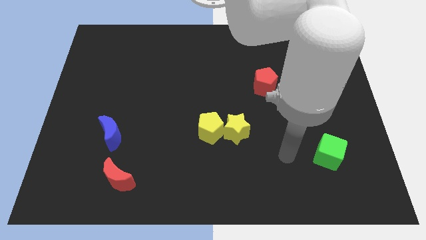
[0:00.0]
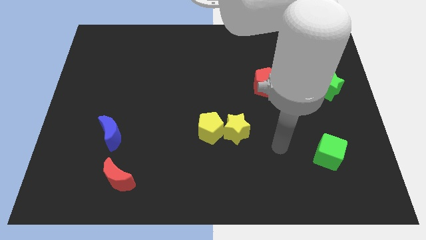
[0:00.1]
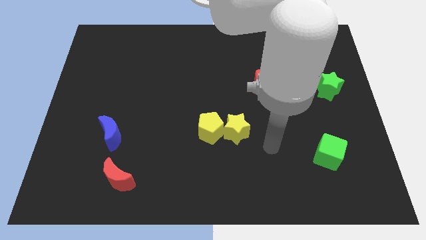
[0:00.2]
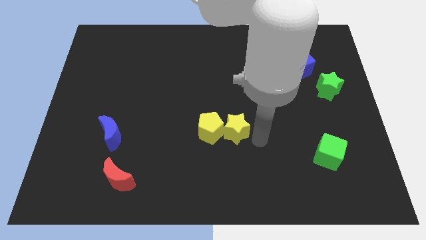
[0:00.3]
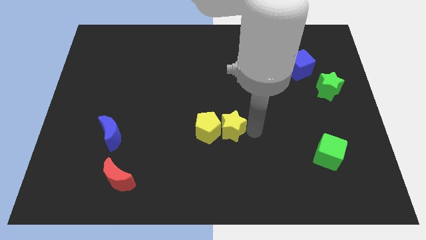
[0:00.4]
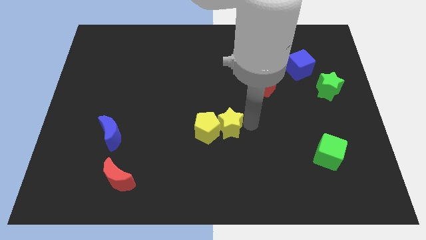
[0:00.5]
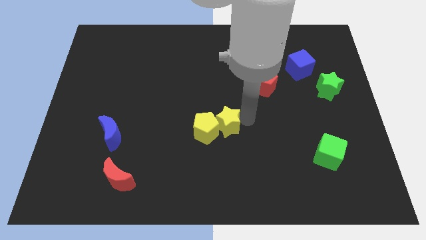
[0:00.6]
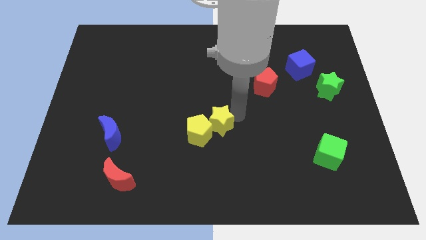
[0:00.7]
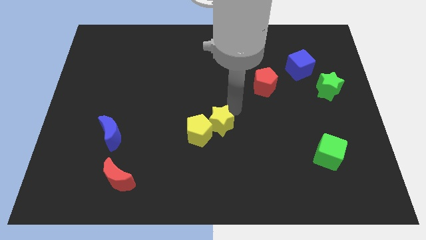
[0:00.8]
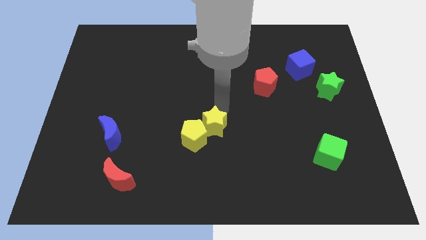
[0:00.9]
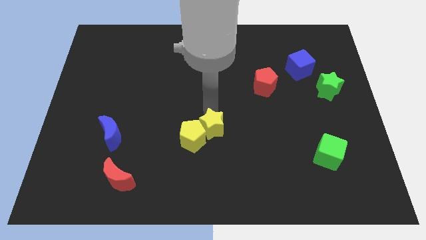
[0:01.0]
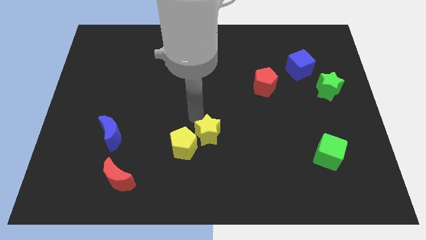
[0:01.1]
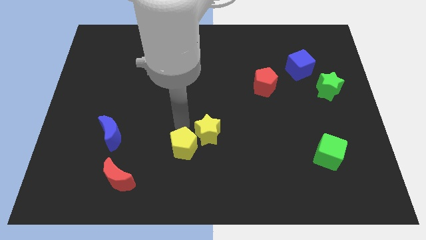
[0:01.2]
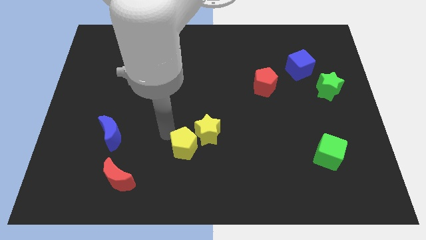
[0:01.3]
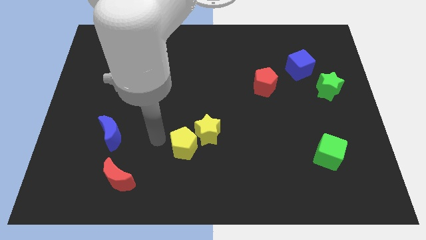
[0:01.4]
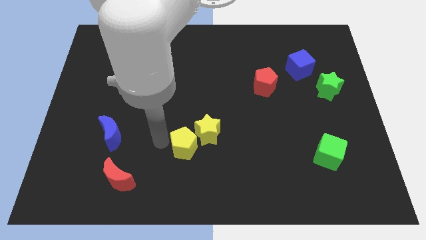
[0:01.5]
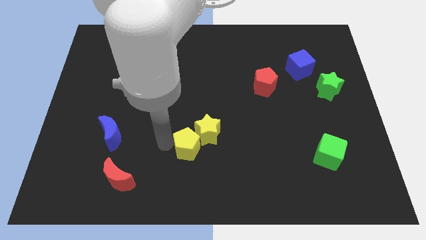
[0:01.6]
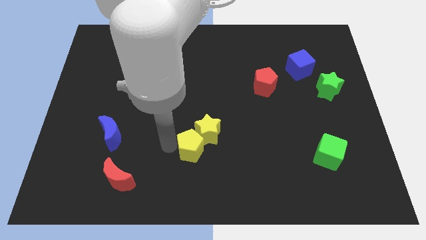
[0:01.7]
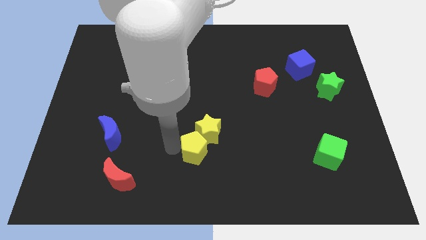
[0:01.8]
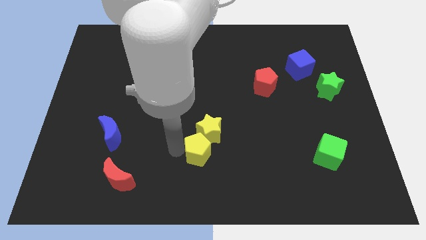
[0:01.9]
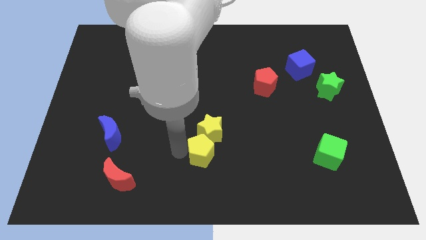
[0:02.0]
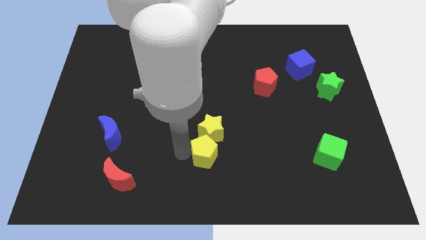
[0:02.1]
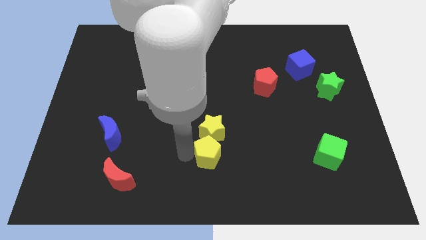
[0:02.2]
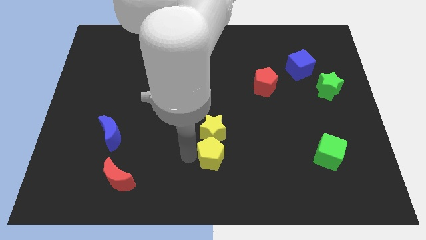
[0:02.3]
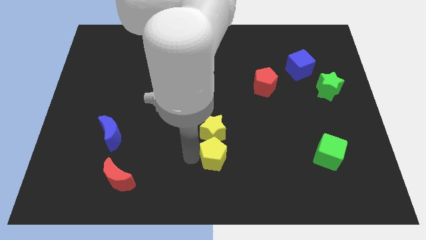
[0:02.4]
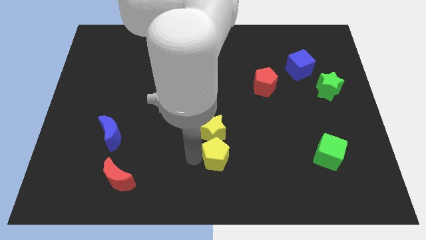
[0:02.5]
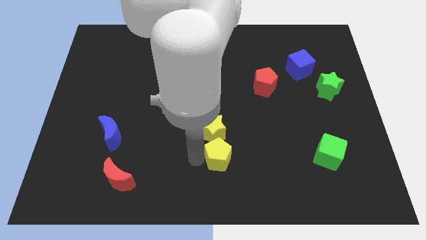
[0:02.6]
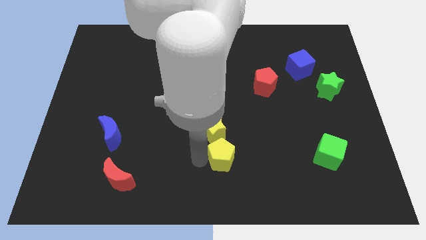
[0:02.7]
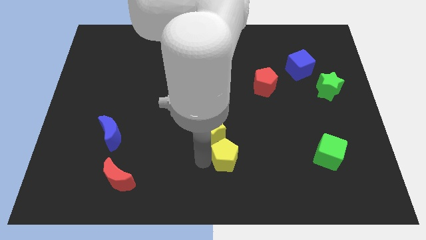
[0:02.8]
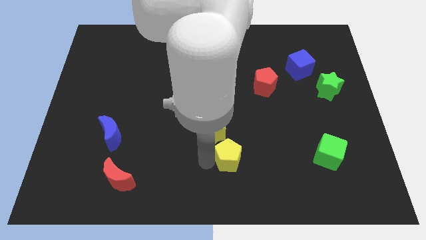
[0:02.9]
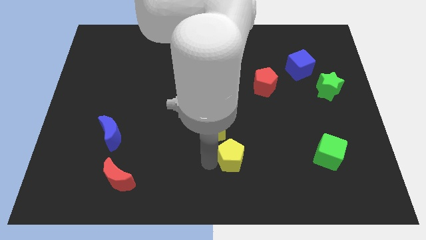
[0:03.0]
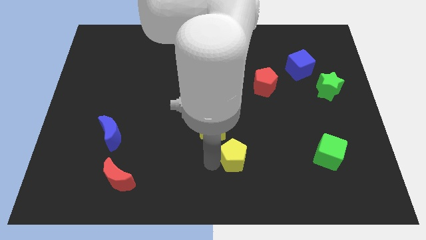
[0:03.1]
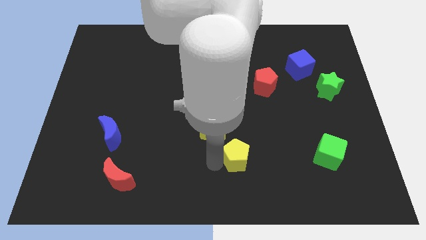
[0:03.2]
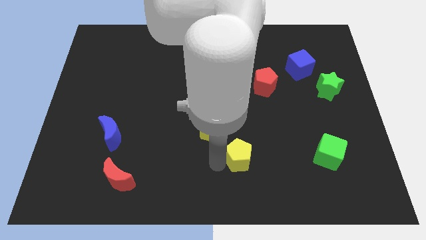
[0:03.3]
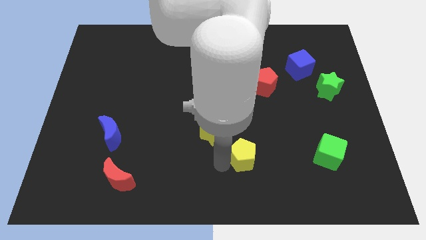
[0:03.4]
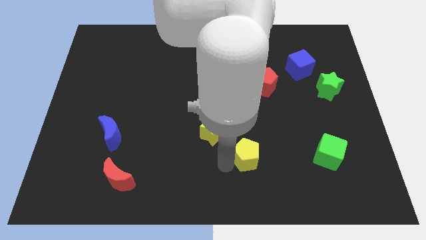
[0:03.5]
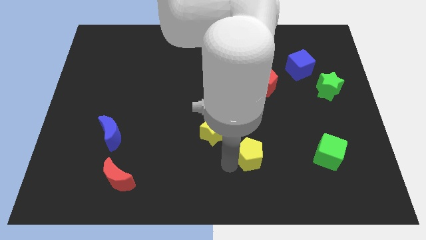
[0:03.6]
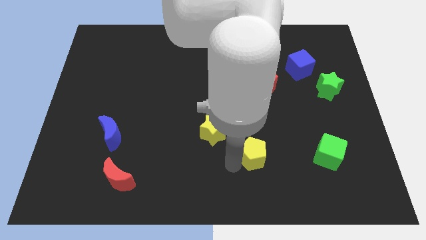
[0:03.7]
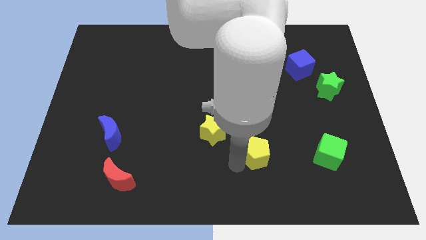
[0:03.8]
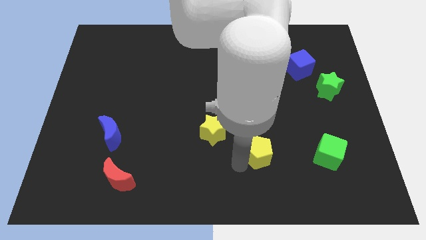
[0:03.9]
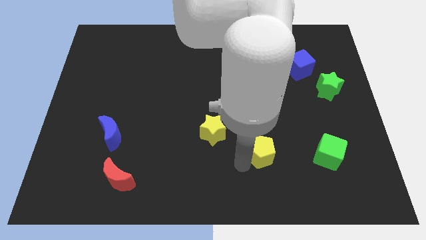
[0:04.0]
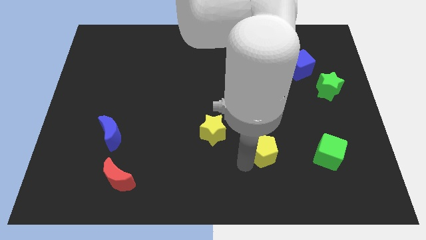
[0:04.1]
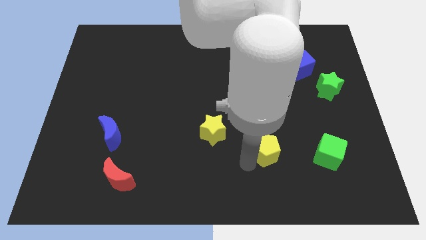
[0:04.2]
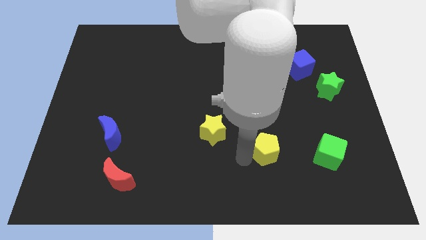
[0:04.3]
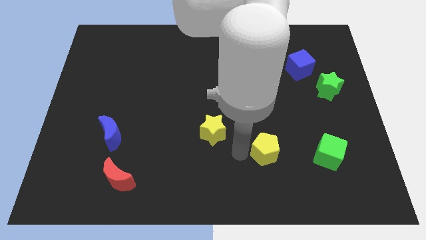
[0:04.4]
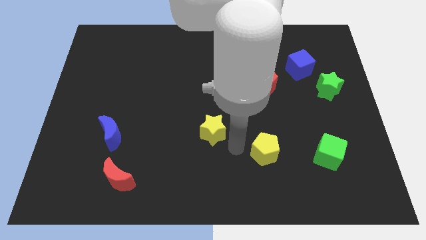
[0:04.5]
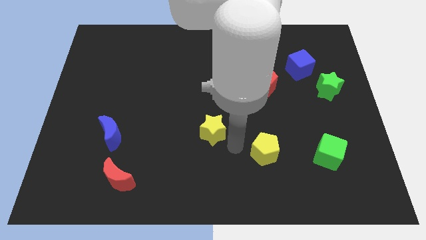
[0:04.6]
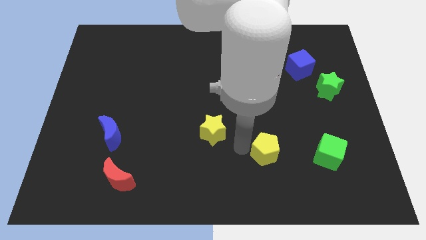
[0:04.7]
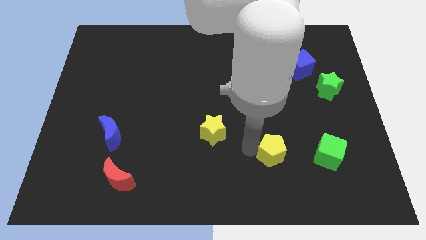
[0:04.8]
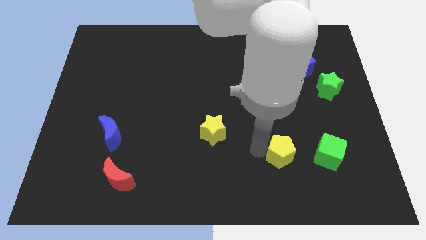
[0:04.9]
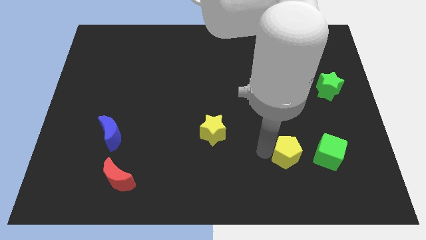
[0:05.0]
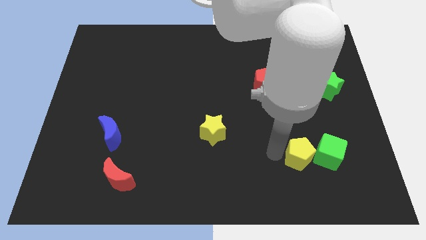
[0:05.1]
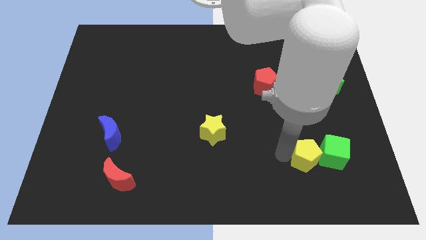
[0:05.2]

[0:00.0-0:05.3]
move the yellow pentagon close to the green cube

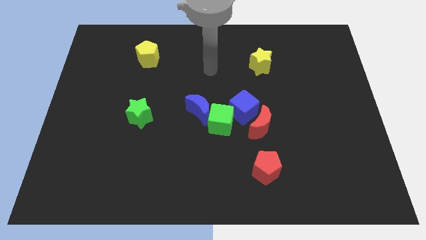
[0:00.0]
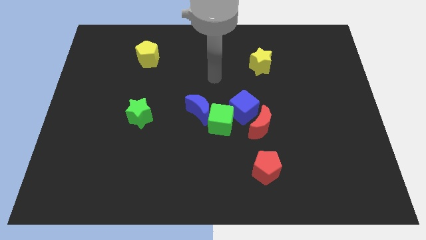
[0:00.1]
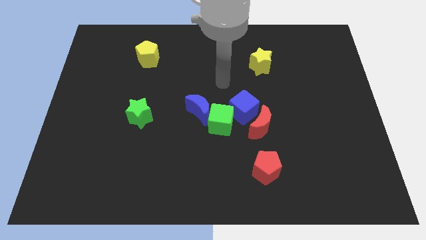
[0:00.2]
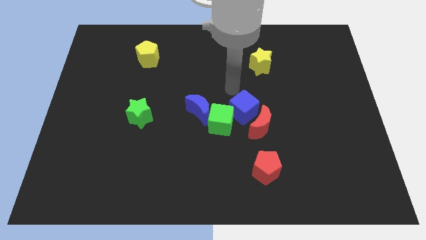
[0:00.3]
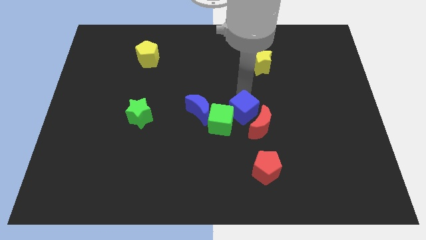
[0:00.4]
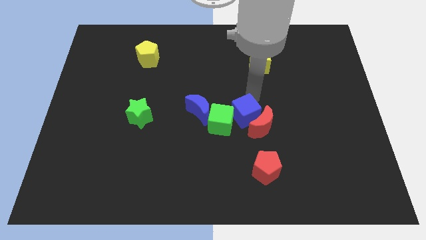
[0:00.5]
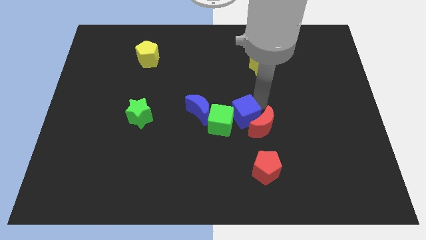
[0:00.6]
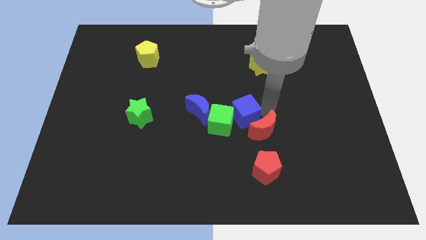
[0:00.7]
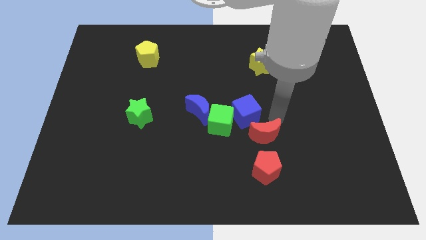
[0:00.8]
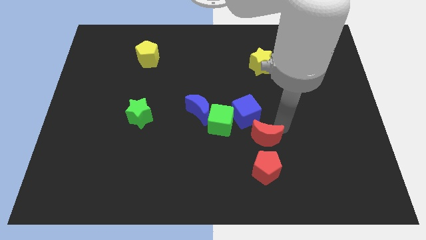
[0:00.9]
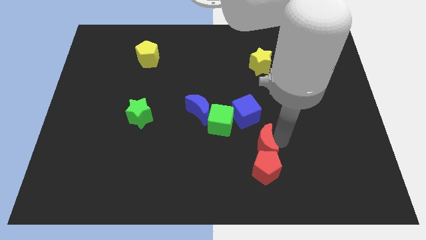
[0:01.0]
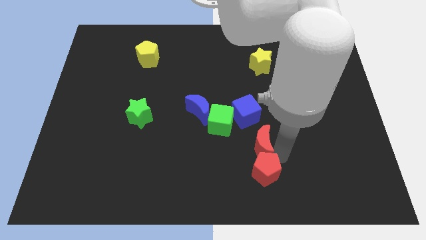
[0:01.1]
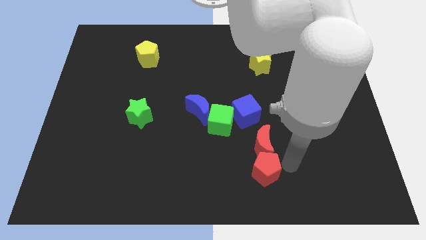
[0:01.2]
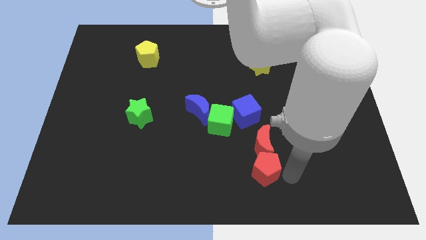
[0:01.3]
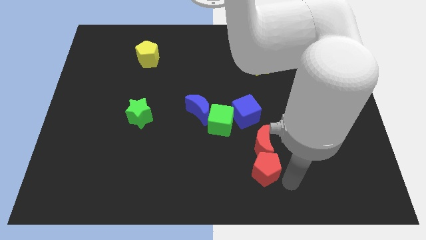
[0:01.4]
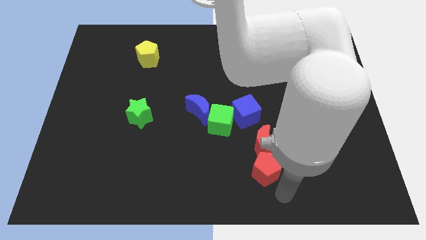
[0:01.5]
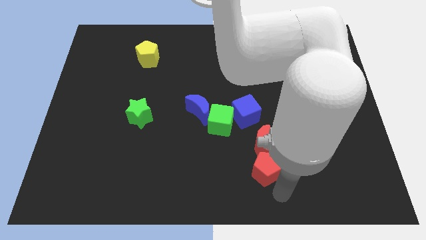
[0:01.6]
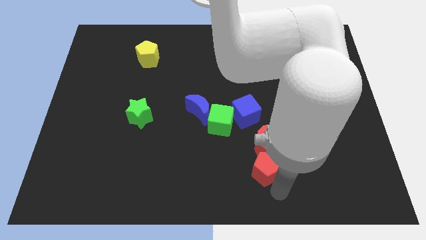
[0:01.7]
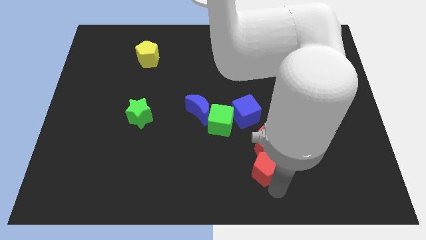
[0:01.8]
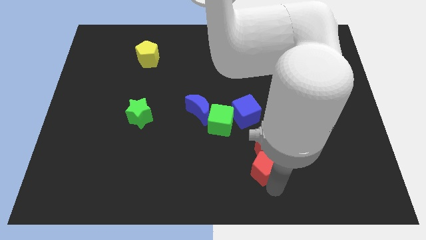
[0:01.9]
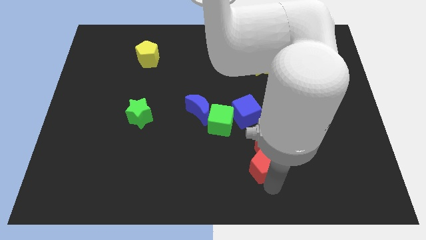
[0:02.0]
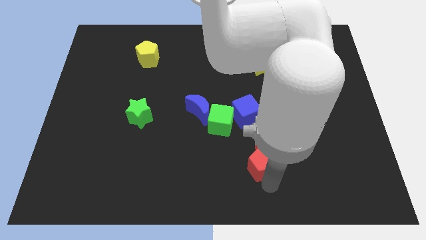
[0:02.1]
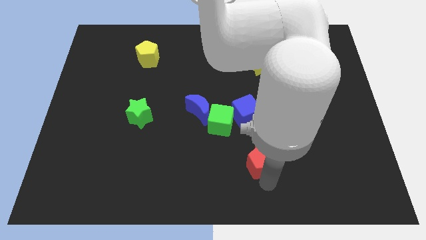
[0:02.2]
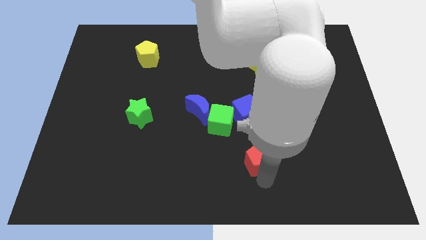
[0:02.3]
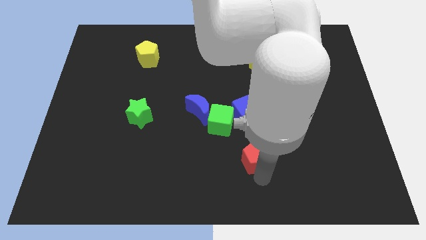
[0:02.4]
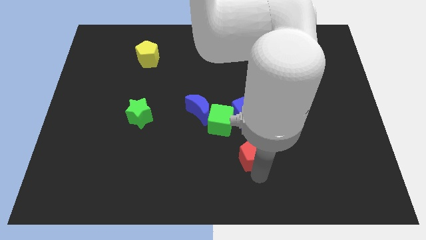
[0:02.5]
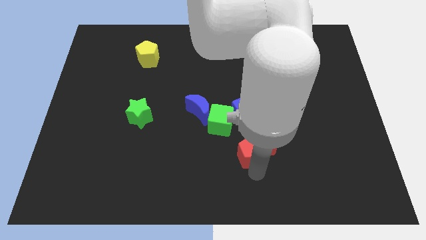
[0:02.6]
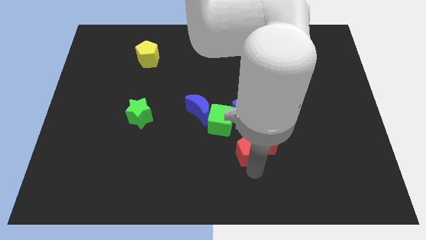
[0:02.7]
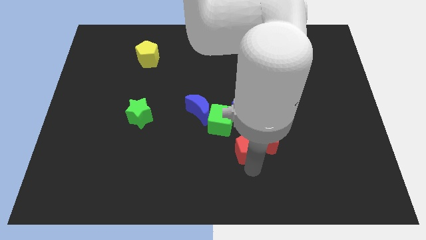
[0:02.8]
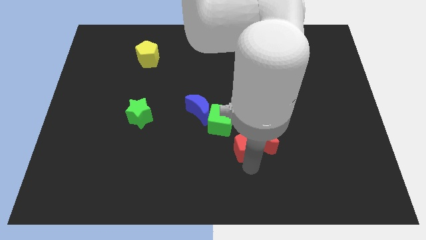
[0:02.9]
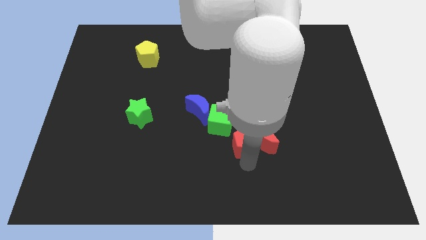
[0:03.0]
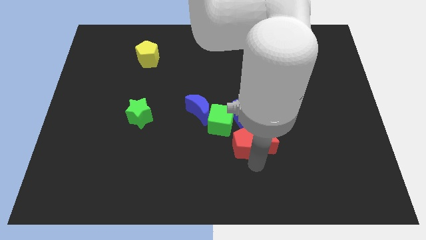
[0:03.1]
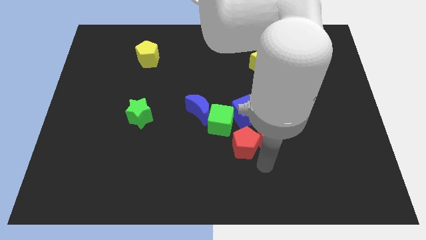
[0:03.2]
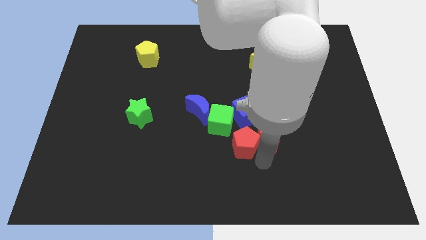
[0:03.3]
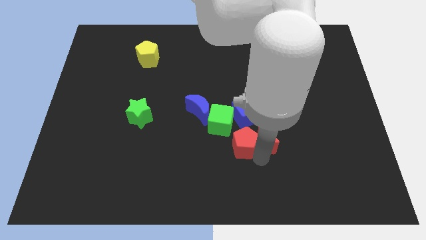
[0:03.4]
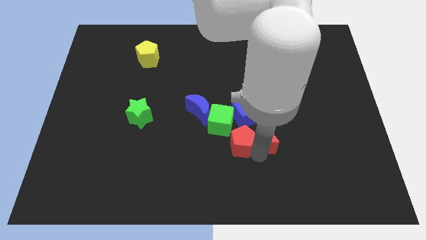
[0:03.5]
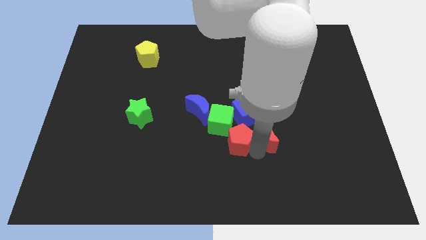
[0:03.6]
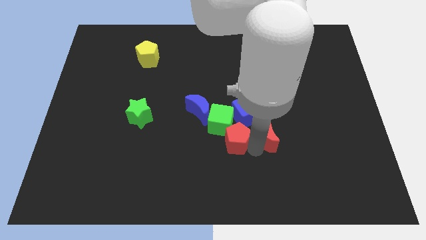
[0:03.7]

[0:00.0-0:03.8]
push the red pentagon to the green cube
